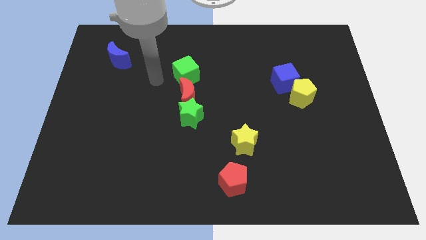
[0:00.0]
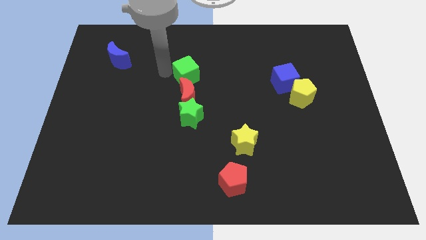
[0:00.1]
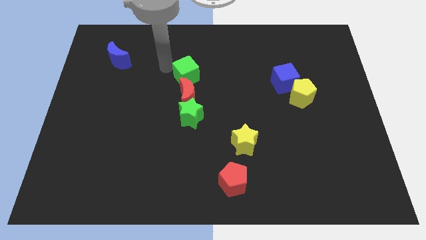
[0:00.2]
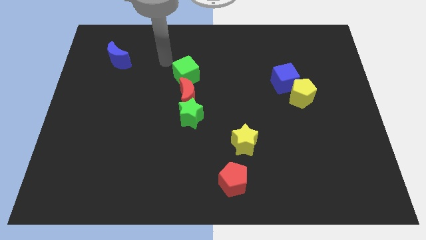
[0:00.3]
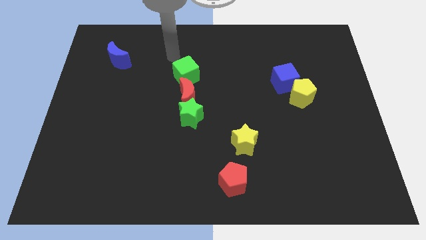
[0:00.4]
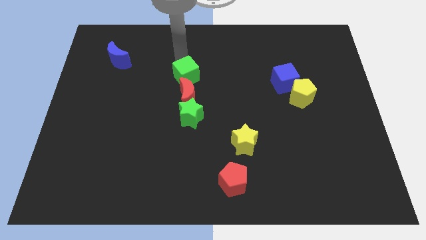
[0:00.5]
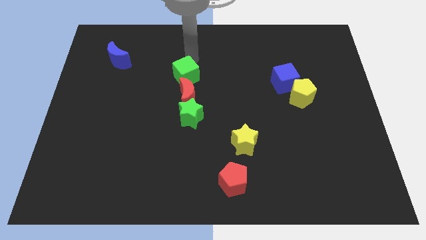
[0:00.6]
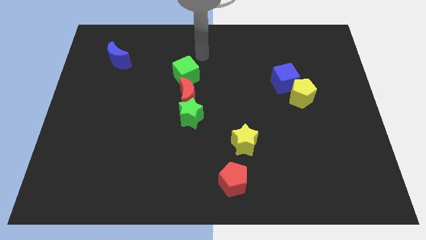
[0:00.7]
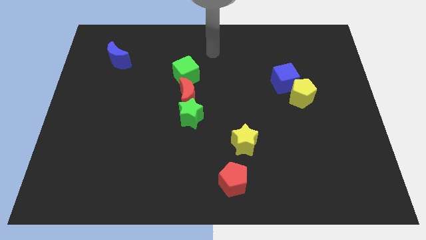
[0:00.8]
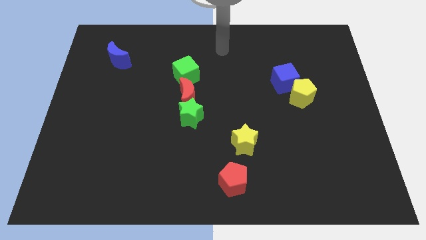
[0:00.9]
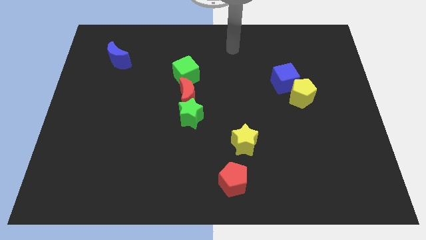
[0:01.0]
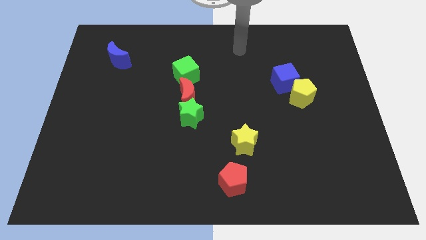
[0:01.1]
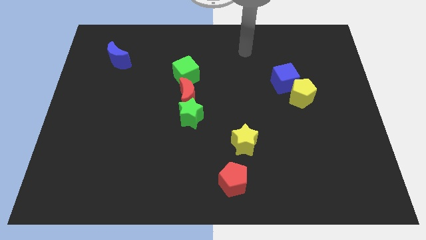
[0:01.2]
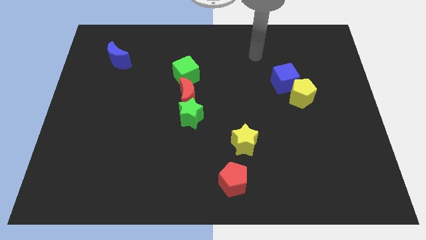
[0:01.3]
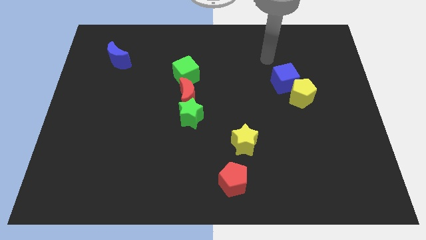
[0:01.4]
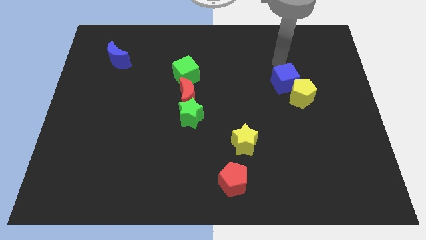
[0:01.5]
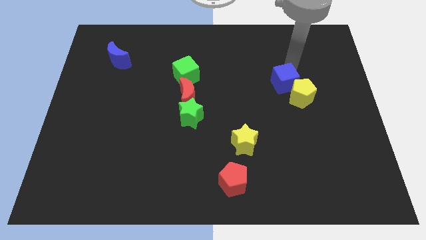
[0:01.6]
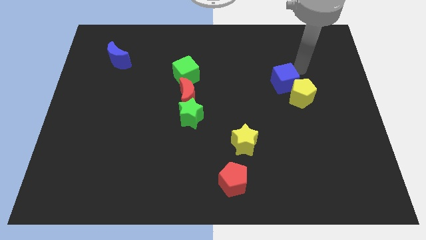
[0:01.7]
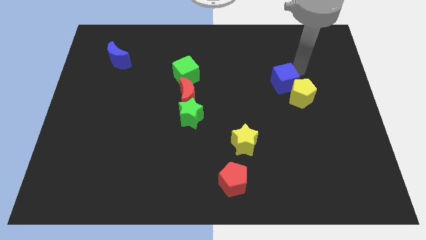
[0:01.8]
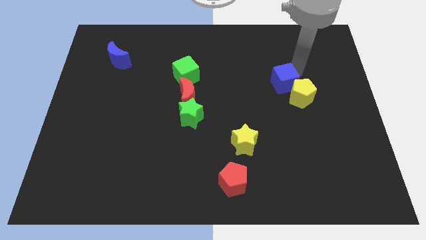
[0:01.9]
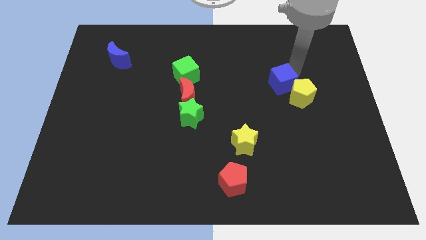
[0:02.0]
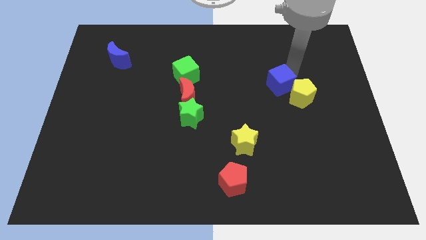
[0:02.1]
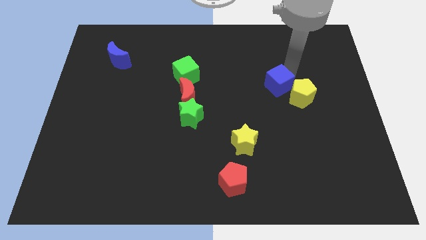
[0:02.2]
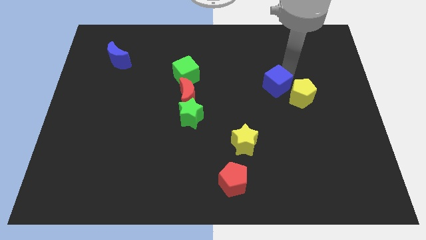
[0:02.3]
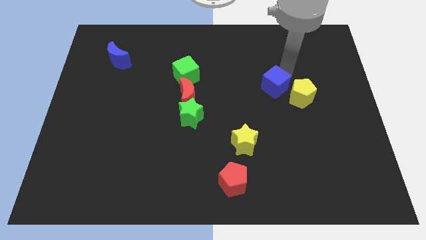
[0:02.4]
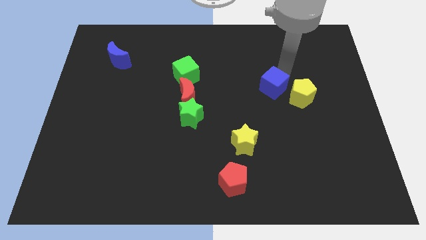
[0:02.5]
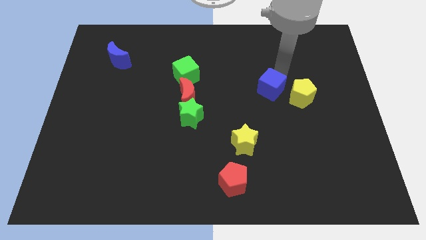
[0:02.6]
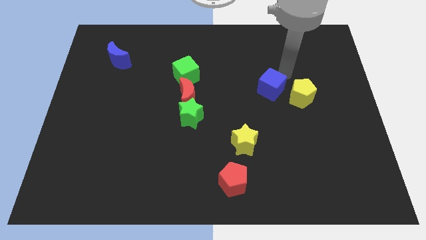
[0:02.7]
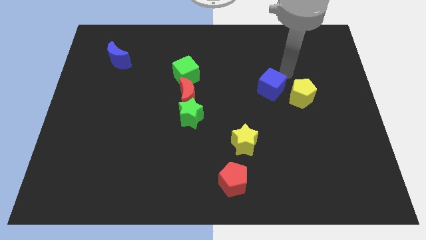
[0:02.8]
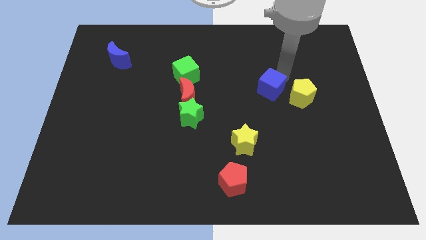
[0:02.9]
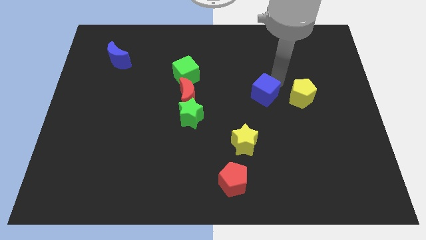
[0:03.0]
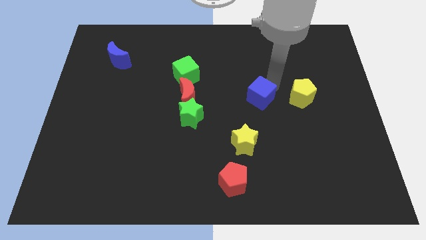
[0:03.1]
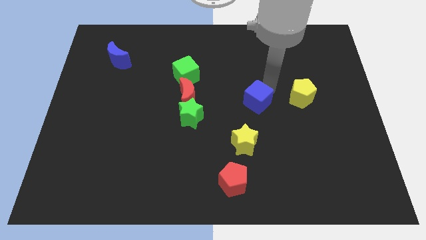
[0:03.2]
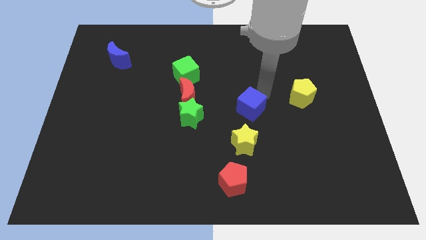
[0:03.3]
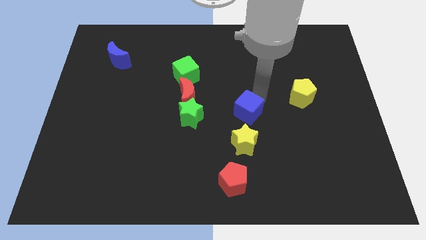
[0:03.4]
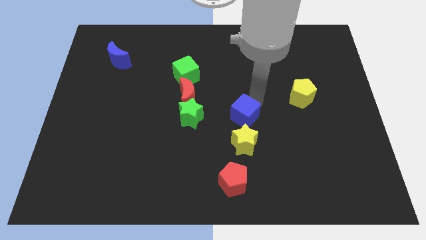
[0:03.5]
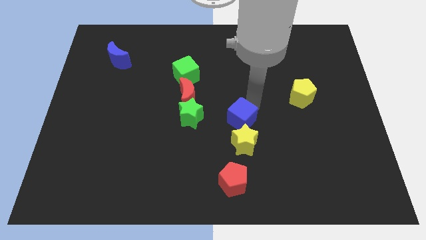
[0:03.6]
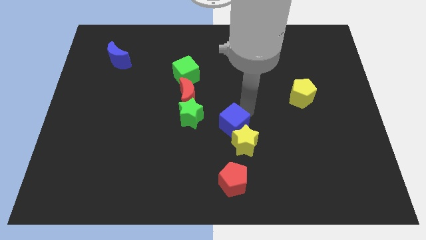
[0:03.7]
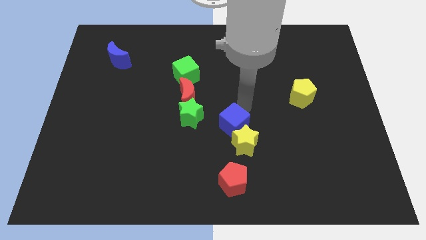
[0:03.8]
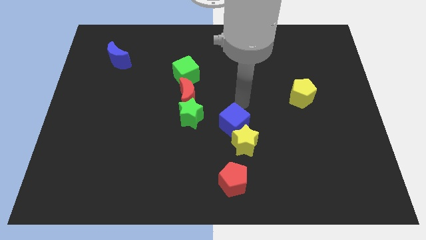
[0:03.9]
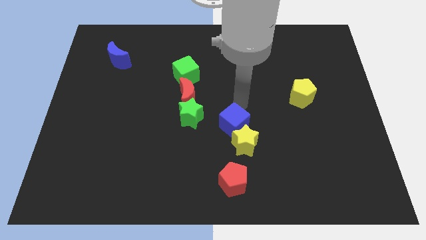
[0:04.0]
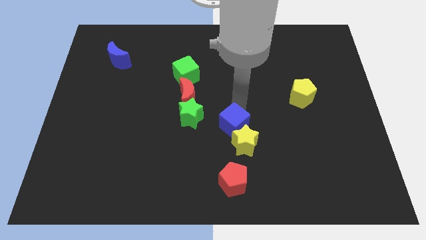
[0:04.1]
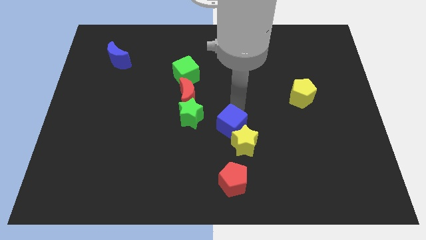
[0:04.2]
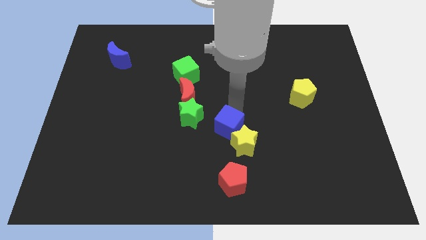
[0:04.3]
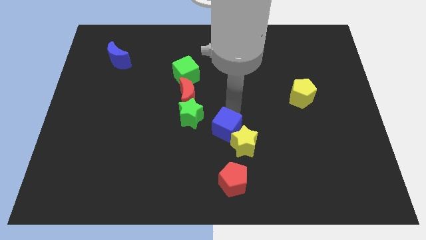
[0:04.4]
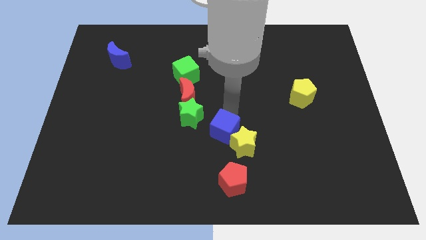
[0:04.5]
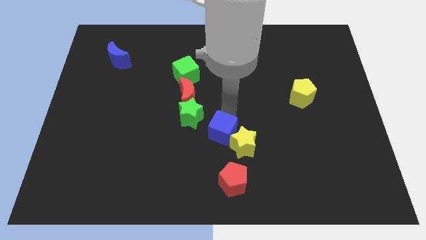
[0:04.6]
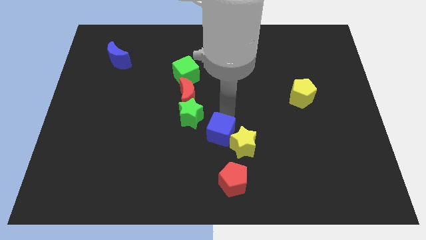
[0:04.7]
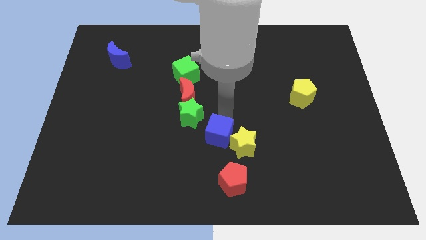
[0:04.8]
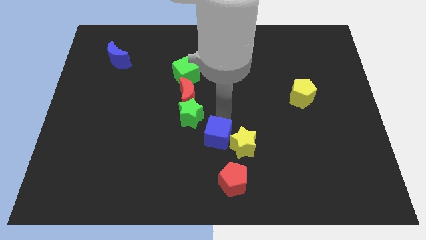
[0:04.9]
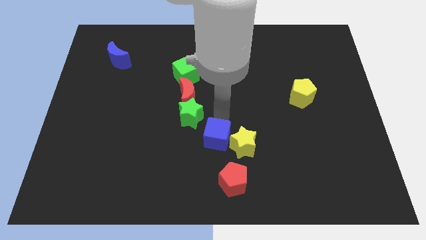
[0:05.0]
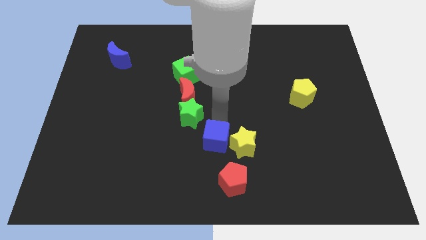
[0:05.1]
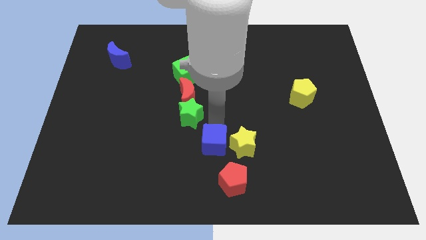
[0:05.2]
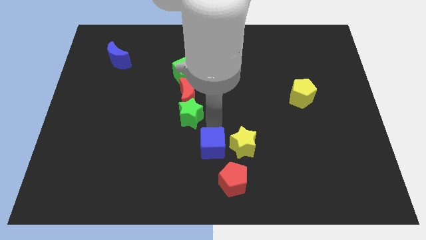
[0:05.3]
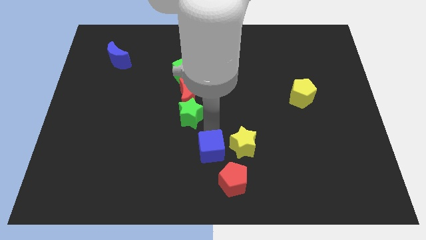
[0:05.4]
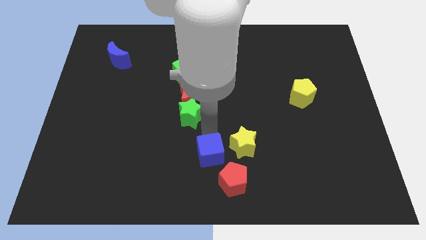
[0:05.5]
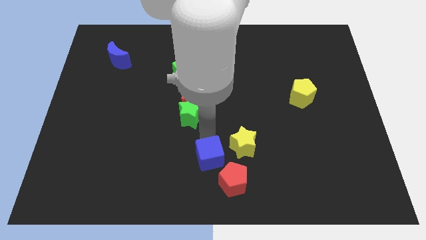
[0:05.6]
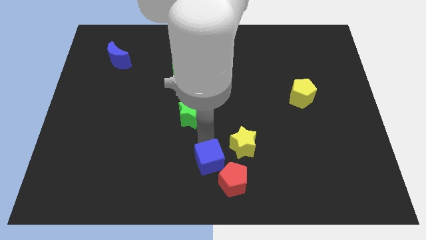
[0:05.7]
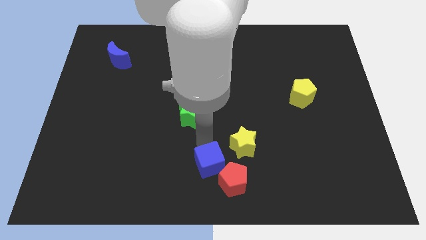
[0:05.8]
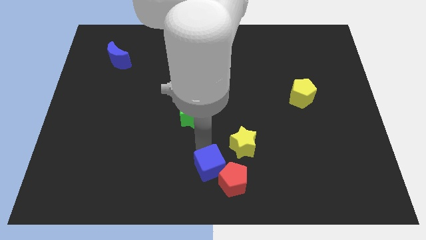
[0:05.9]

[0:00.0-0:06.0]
slide the blue cube next to the red pentagon
